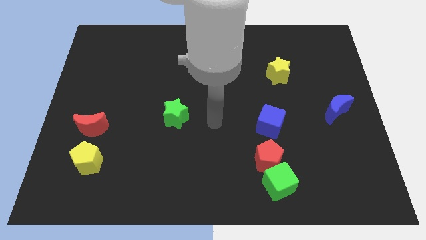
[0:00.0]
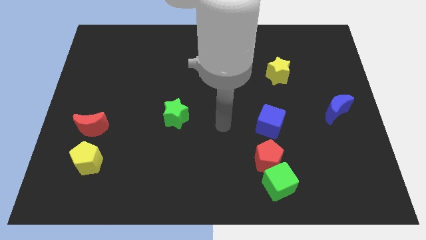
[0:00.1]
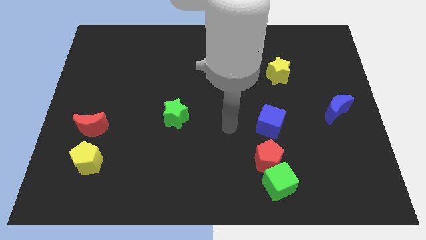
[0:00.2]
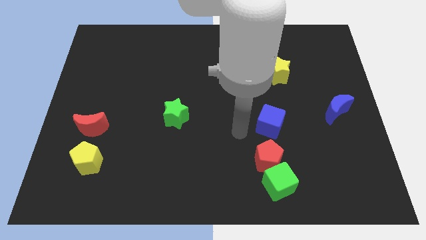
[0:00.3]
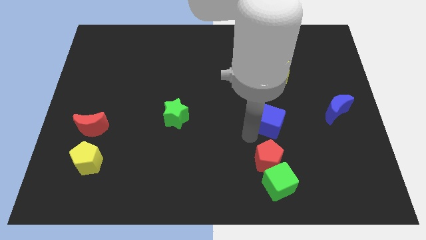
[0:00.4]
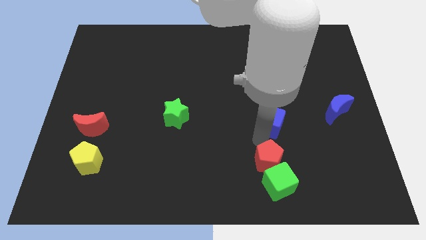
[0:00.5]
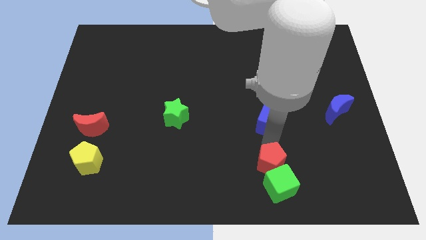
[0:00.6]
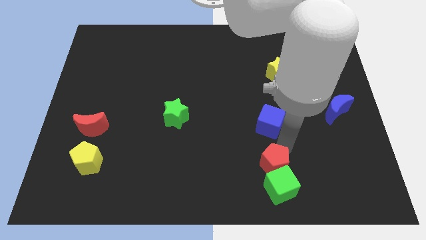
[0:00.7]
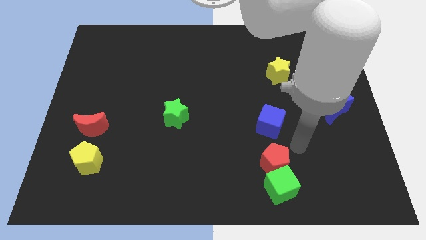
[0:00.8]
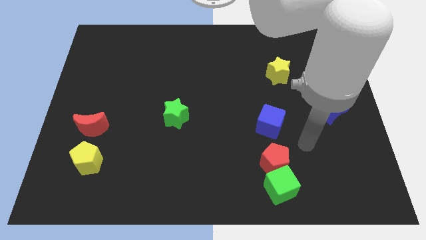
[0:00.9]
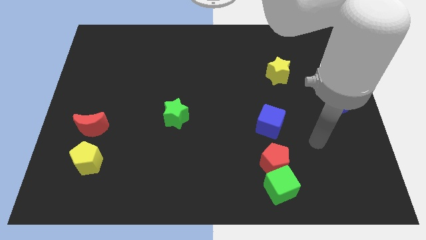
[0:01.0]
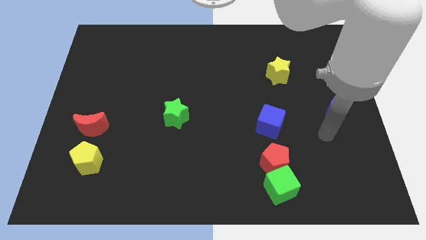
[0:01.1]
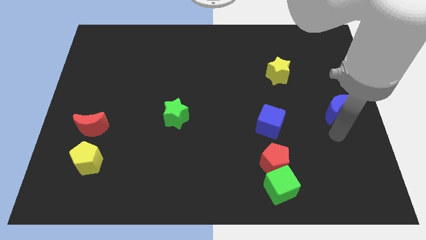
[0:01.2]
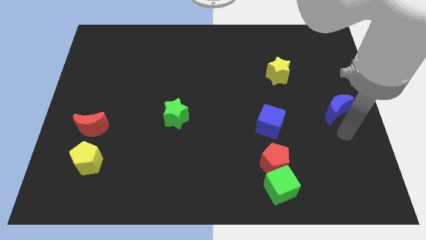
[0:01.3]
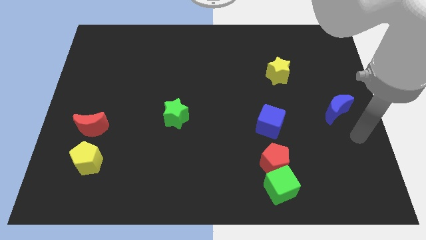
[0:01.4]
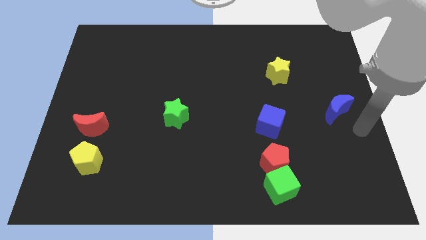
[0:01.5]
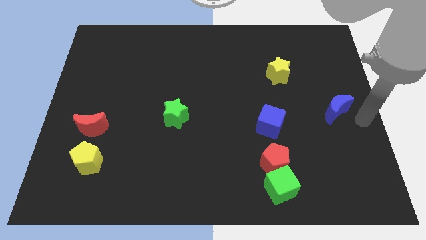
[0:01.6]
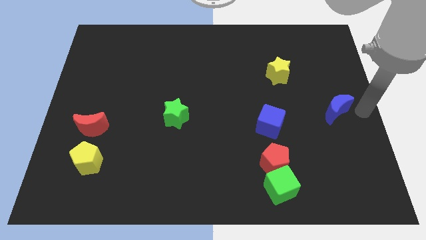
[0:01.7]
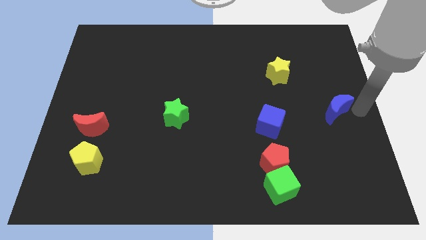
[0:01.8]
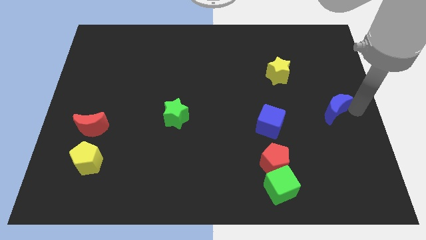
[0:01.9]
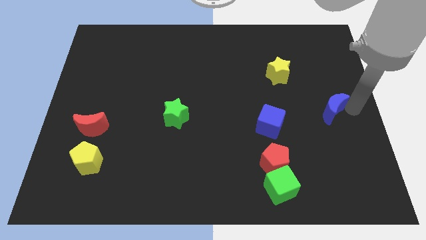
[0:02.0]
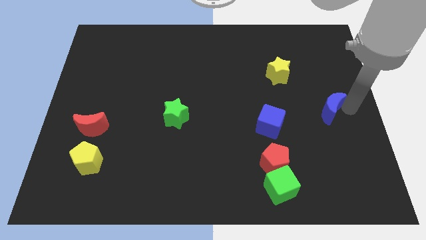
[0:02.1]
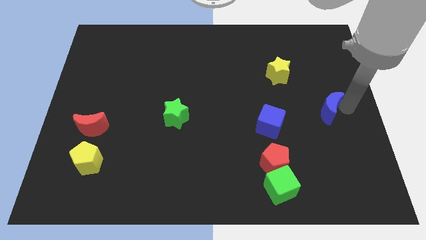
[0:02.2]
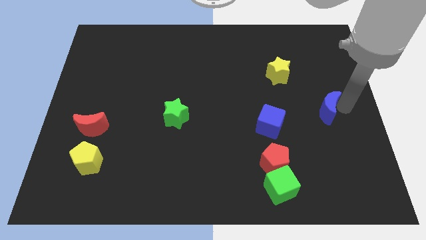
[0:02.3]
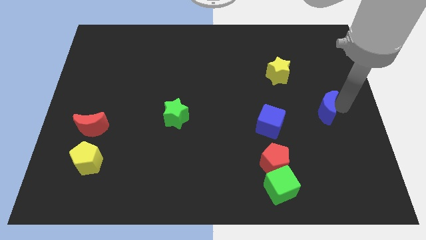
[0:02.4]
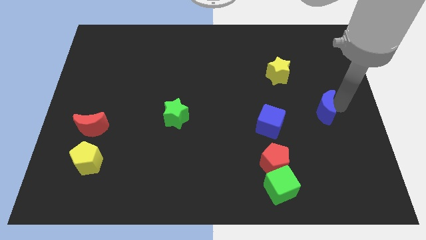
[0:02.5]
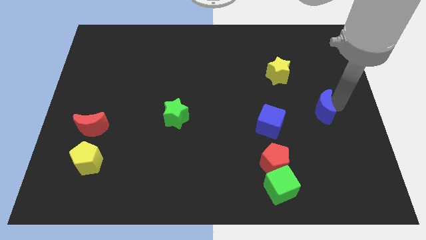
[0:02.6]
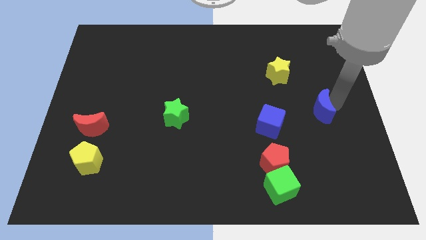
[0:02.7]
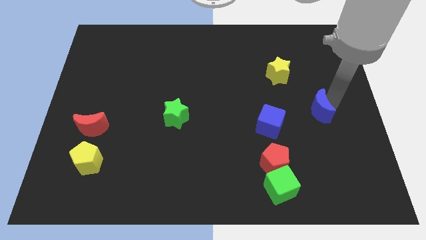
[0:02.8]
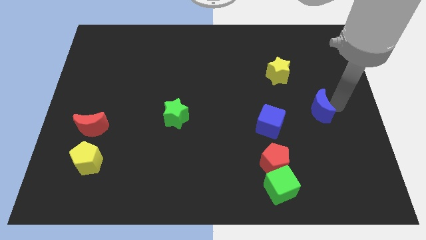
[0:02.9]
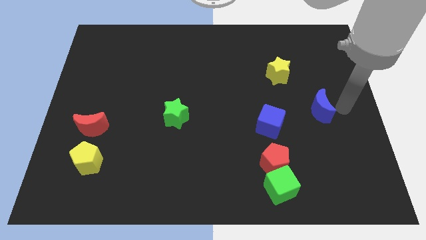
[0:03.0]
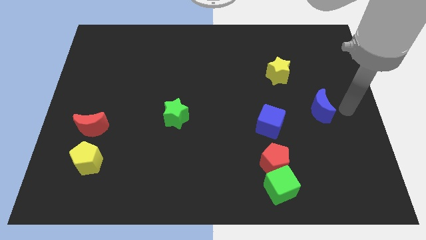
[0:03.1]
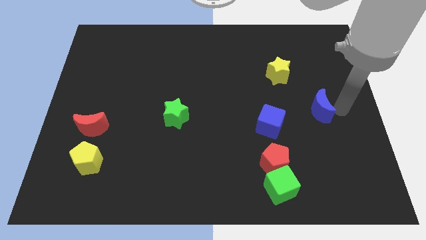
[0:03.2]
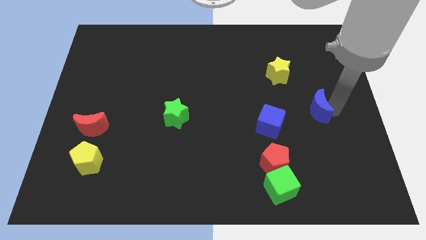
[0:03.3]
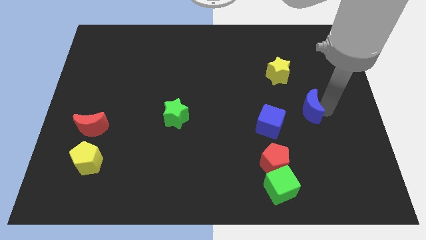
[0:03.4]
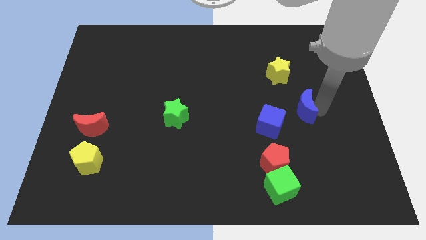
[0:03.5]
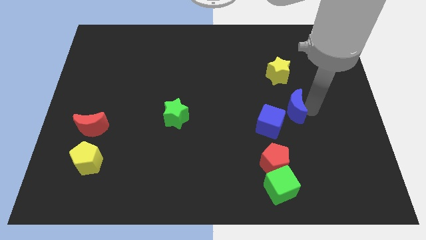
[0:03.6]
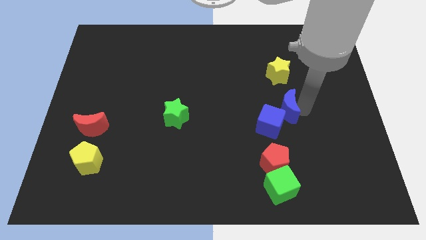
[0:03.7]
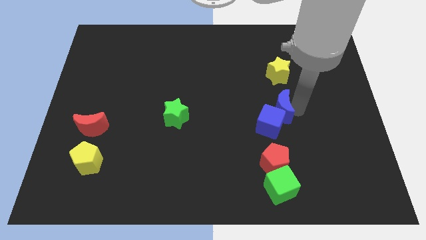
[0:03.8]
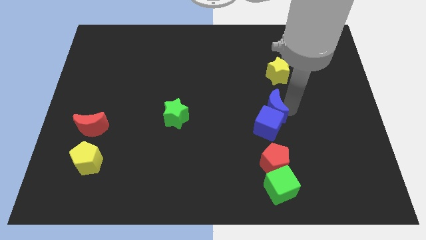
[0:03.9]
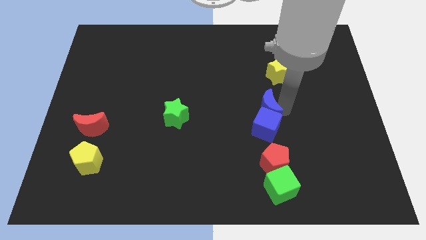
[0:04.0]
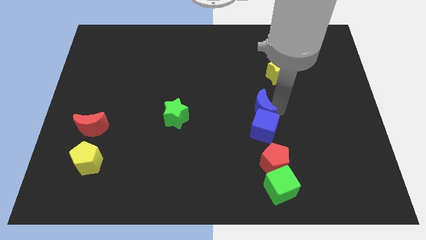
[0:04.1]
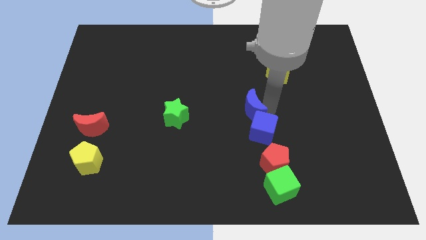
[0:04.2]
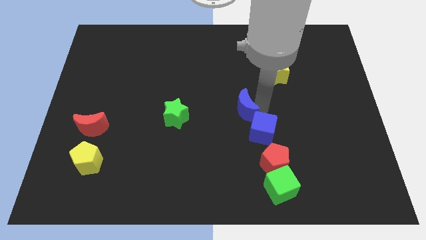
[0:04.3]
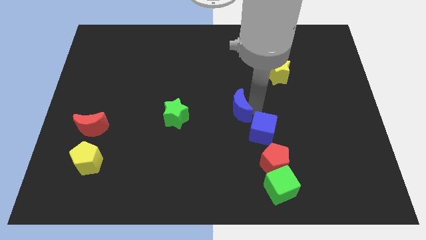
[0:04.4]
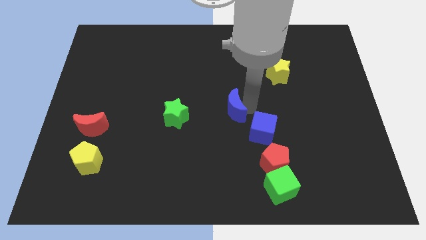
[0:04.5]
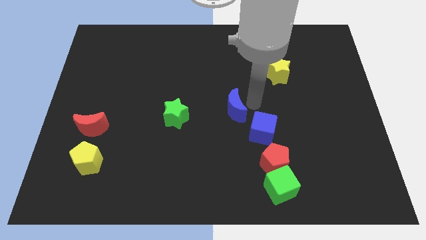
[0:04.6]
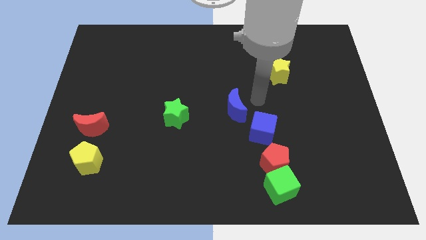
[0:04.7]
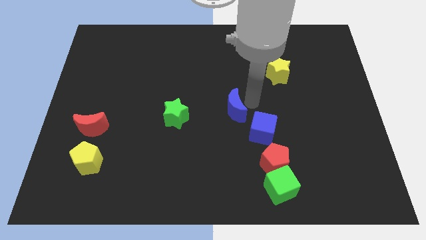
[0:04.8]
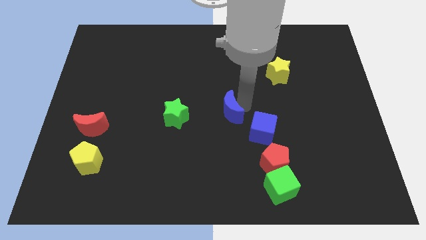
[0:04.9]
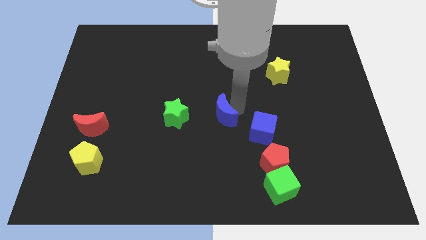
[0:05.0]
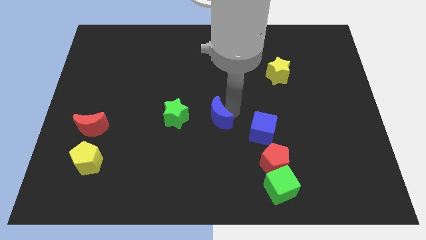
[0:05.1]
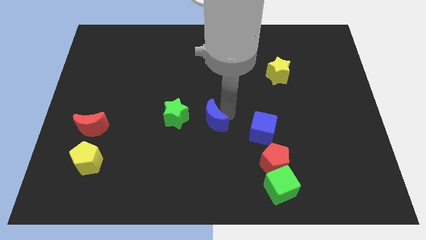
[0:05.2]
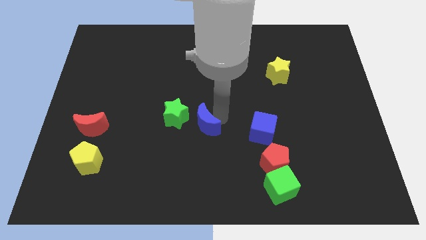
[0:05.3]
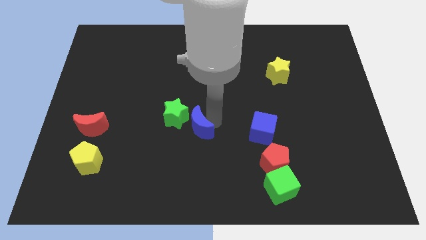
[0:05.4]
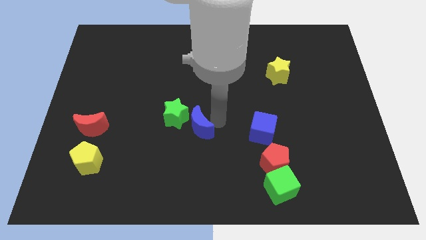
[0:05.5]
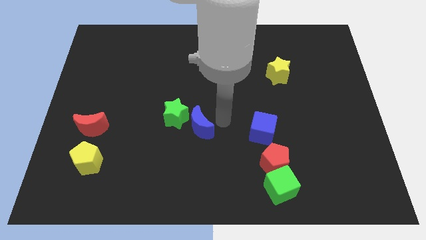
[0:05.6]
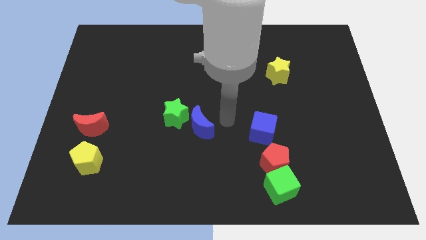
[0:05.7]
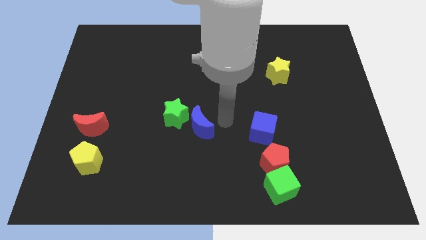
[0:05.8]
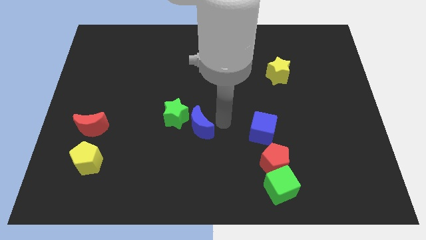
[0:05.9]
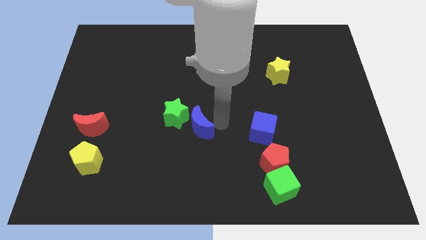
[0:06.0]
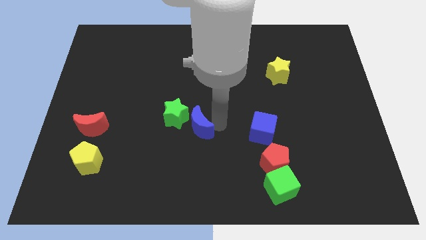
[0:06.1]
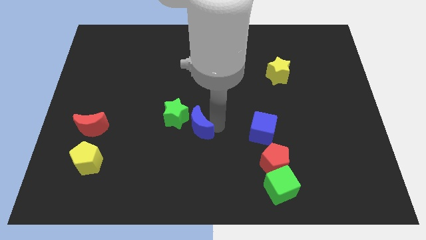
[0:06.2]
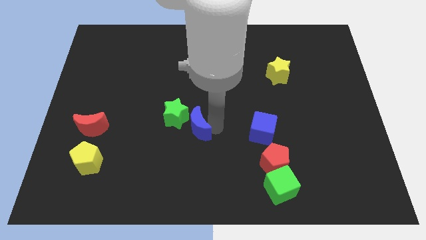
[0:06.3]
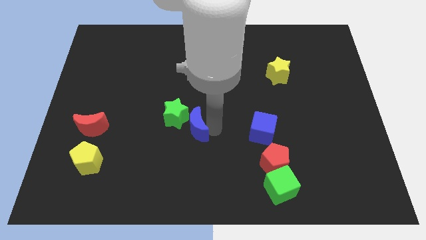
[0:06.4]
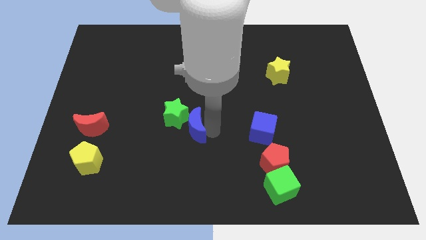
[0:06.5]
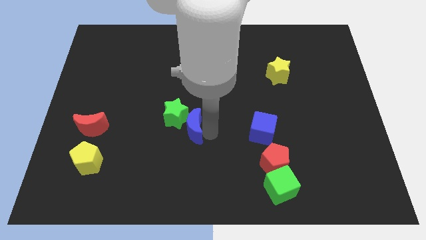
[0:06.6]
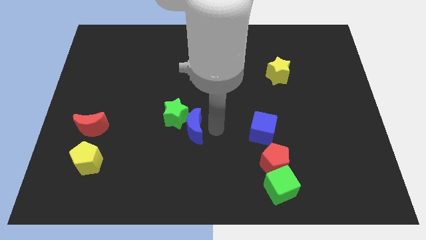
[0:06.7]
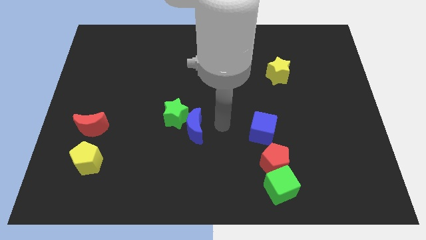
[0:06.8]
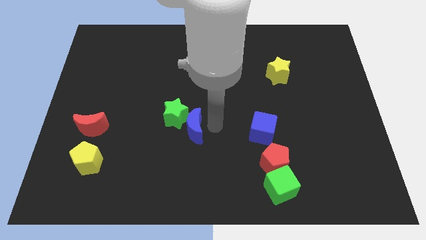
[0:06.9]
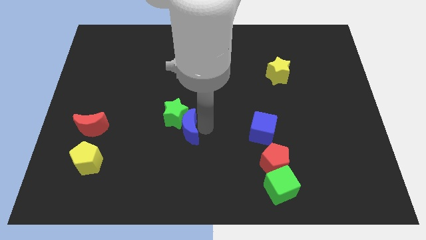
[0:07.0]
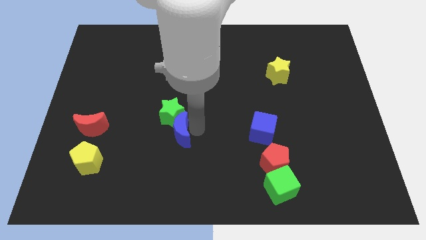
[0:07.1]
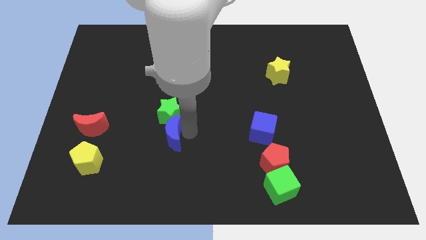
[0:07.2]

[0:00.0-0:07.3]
put the blue moon to the bottom left of the green star

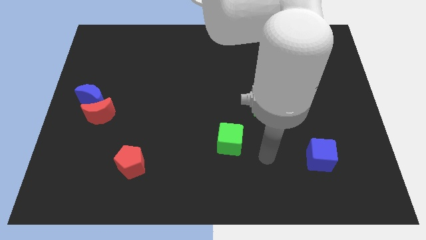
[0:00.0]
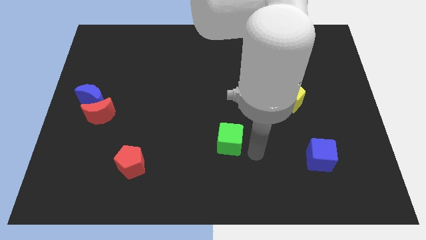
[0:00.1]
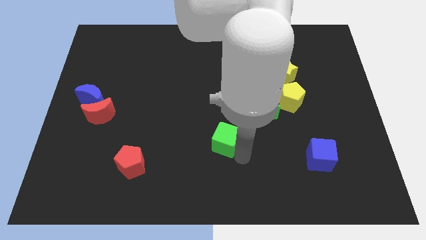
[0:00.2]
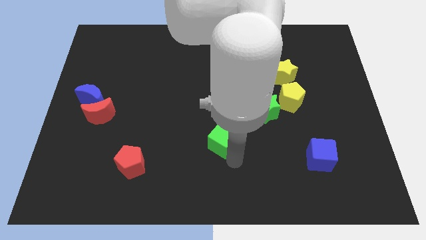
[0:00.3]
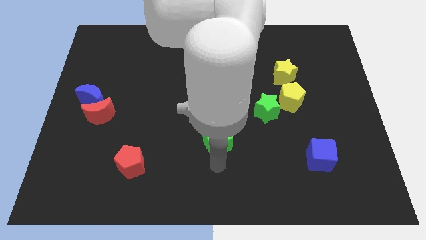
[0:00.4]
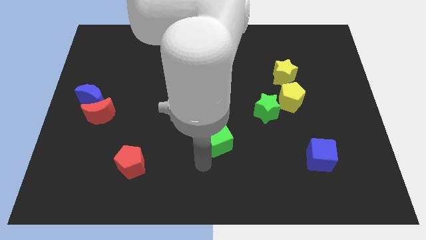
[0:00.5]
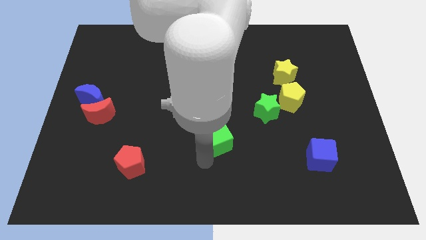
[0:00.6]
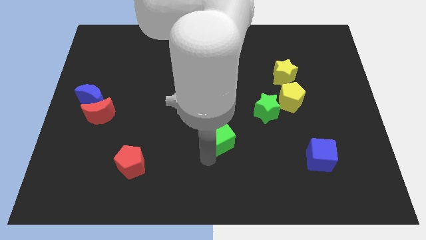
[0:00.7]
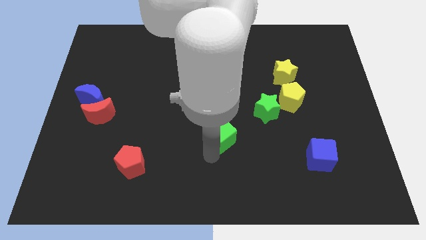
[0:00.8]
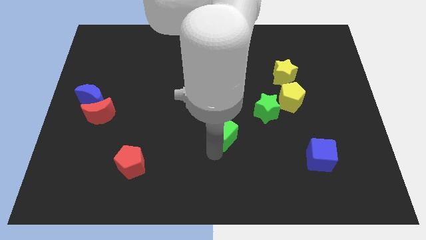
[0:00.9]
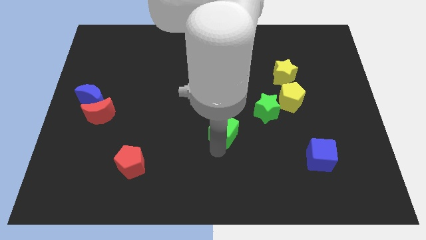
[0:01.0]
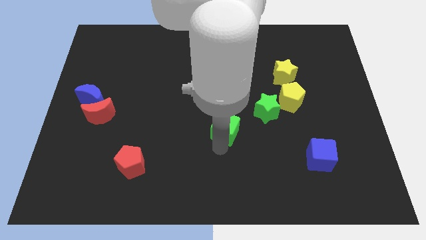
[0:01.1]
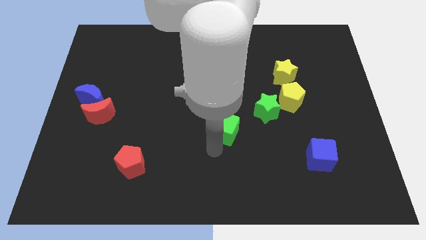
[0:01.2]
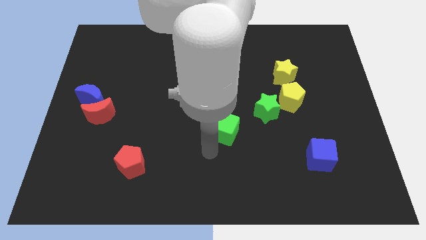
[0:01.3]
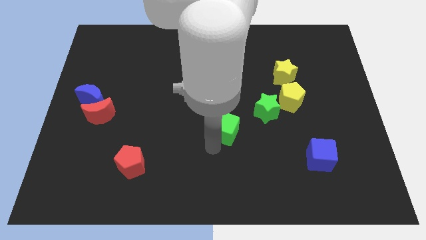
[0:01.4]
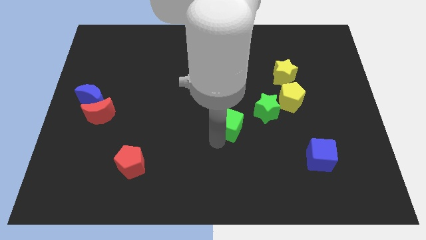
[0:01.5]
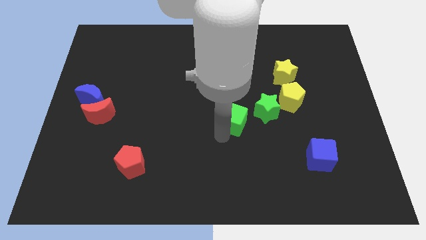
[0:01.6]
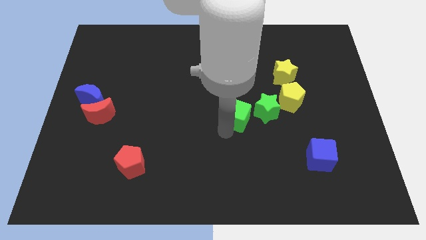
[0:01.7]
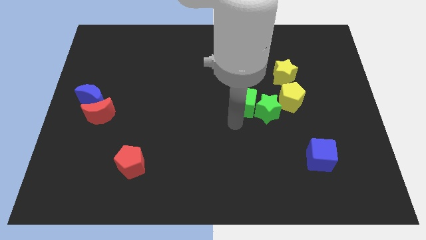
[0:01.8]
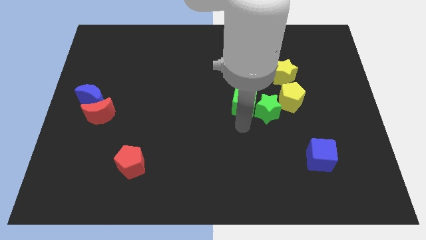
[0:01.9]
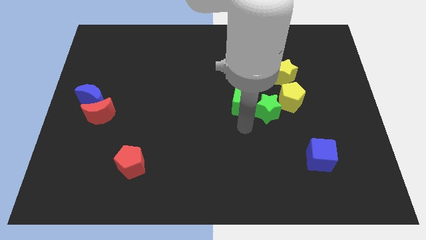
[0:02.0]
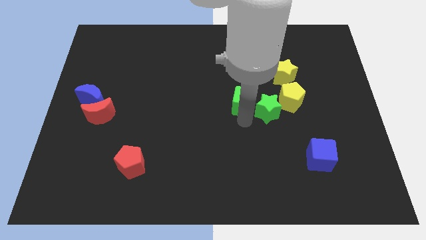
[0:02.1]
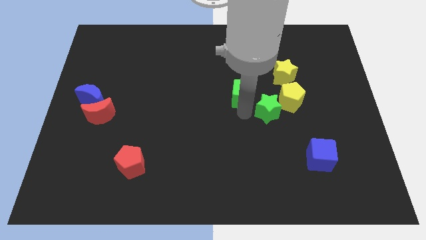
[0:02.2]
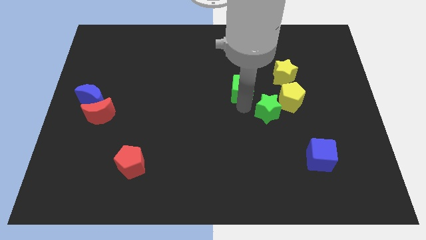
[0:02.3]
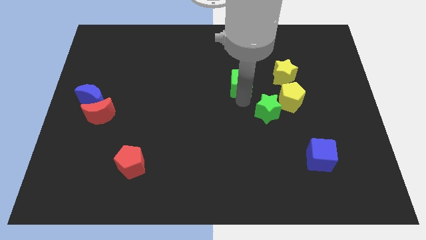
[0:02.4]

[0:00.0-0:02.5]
put the green cube to the left side of the yellow star
